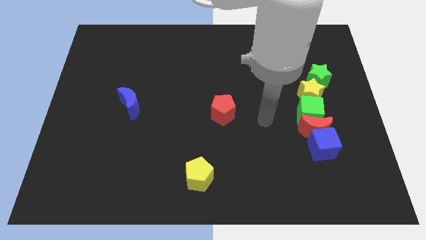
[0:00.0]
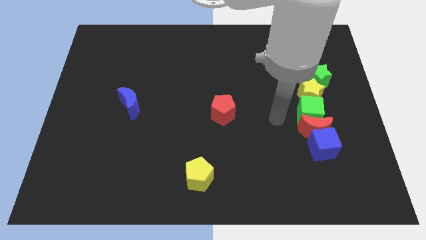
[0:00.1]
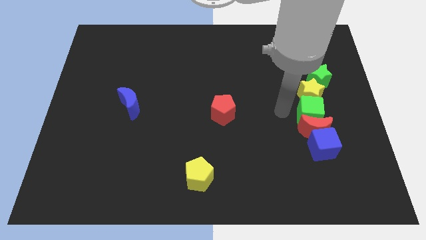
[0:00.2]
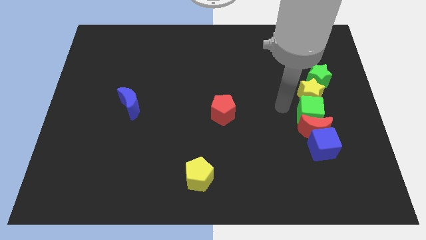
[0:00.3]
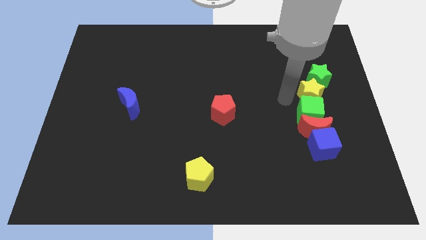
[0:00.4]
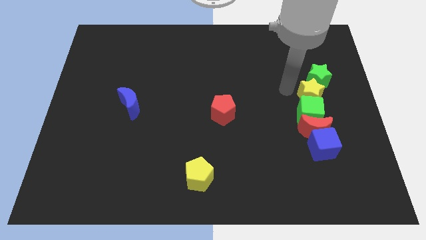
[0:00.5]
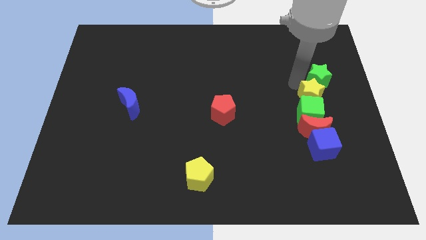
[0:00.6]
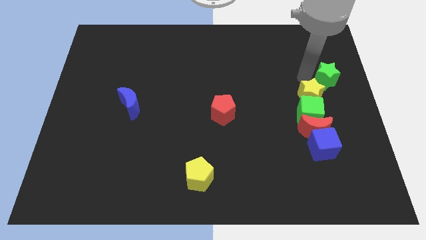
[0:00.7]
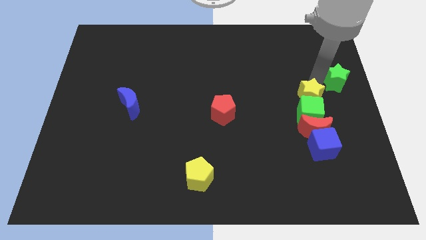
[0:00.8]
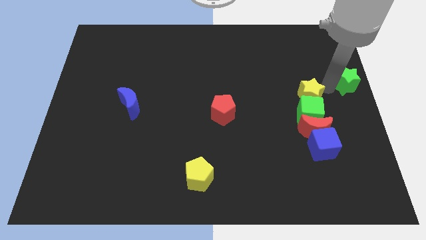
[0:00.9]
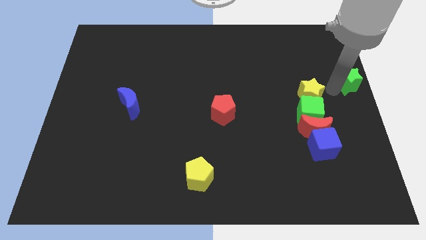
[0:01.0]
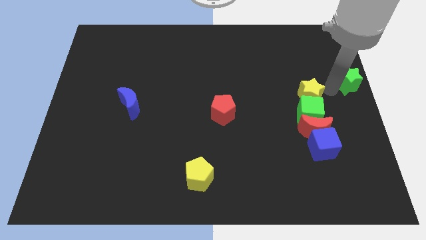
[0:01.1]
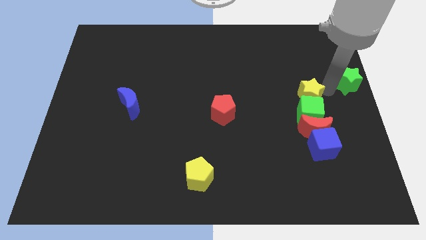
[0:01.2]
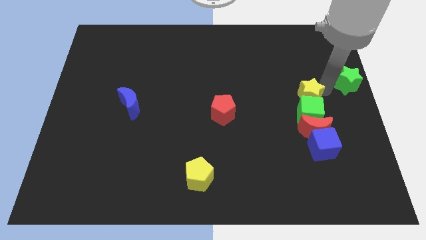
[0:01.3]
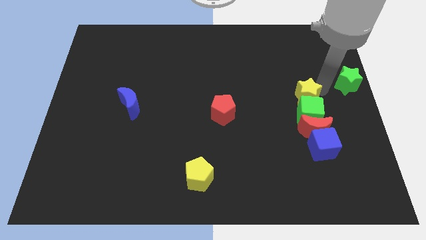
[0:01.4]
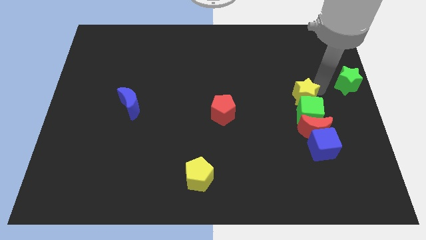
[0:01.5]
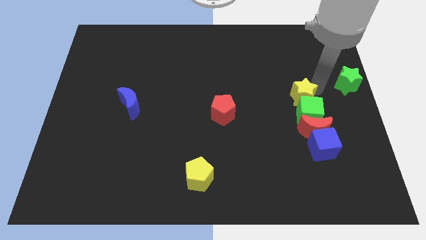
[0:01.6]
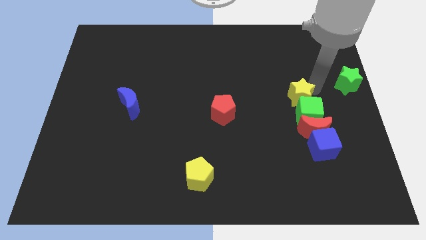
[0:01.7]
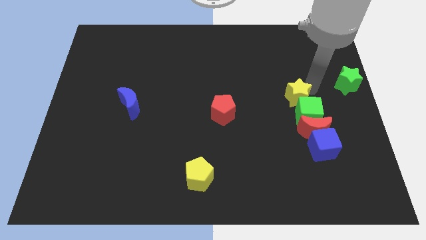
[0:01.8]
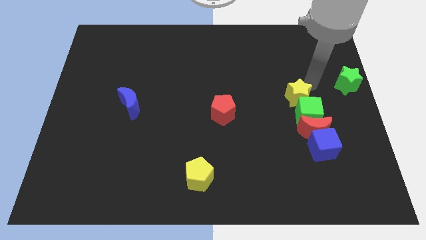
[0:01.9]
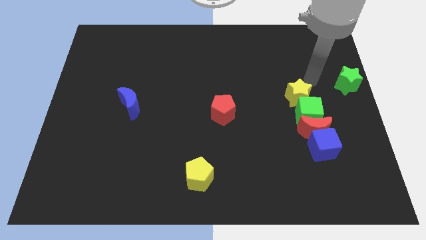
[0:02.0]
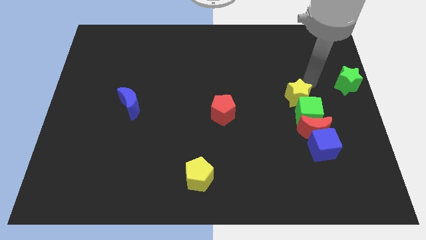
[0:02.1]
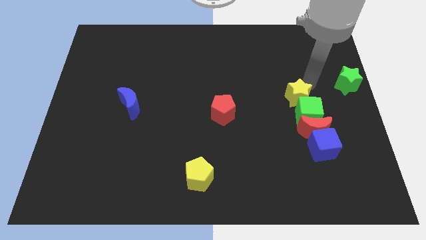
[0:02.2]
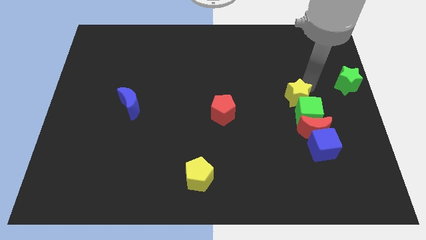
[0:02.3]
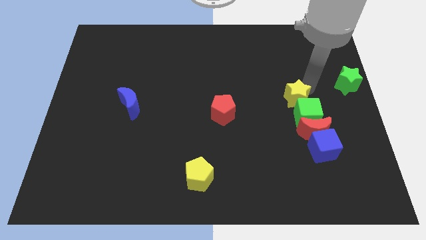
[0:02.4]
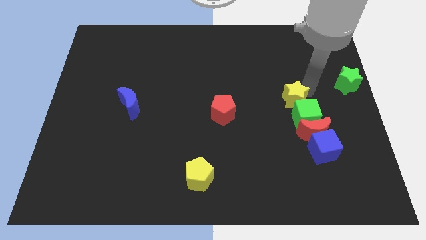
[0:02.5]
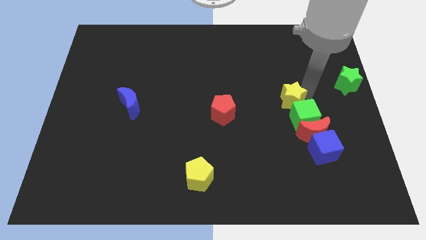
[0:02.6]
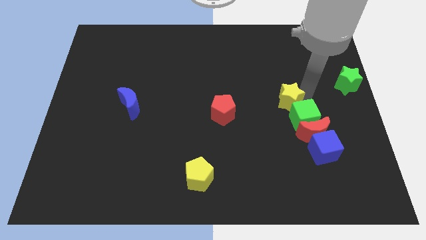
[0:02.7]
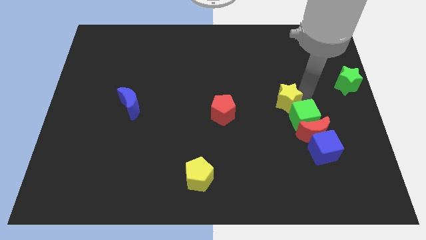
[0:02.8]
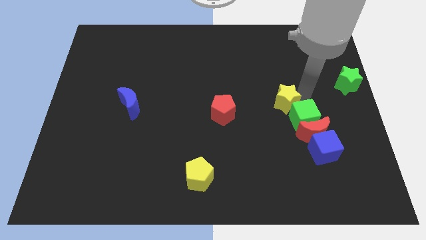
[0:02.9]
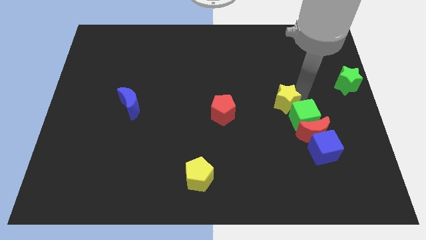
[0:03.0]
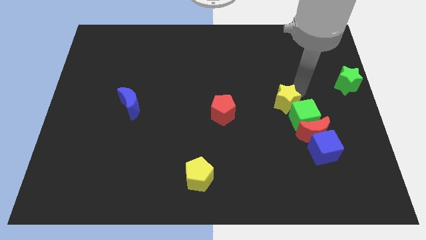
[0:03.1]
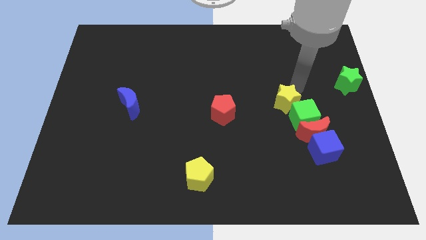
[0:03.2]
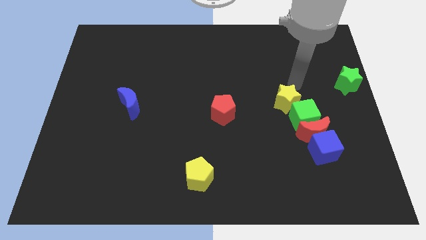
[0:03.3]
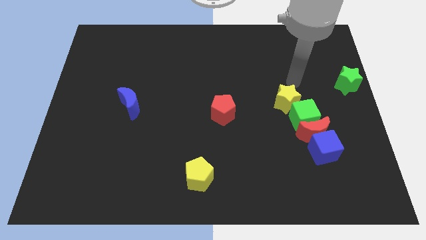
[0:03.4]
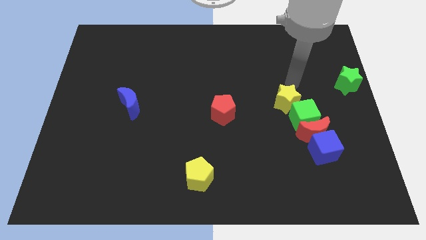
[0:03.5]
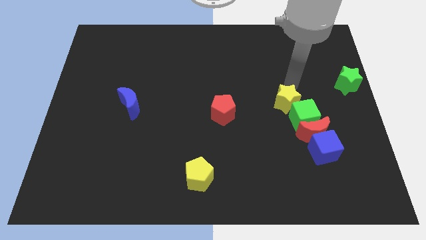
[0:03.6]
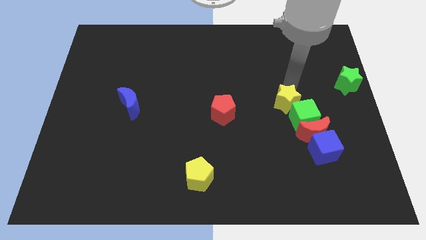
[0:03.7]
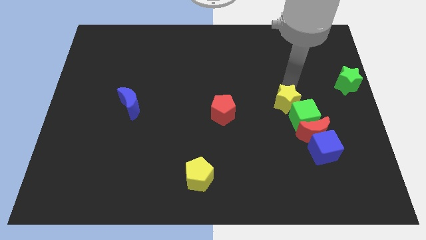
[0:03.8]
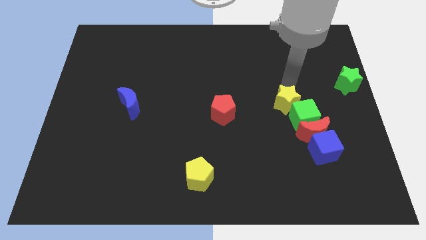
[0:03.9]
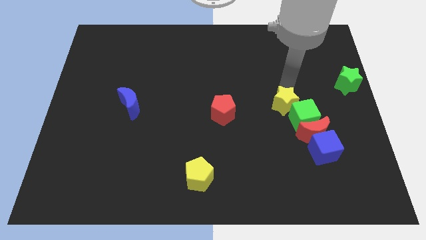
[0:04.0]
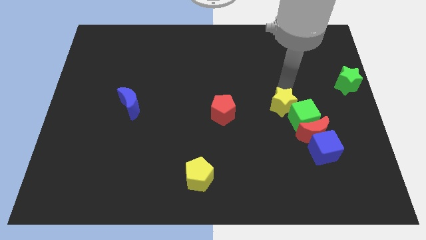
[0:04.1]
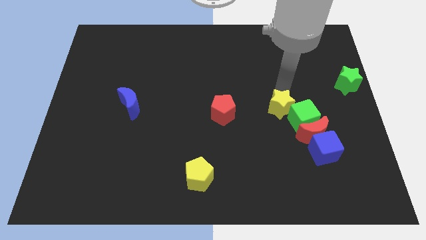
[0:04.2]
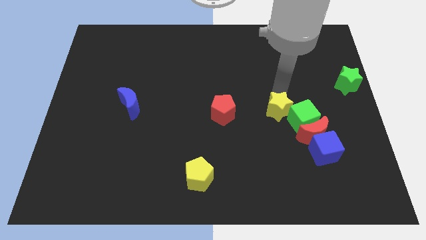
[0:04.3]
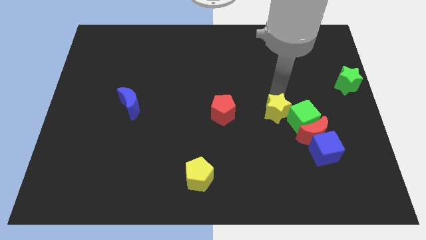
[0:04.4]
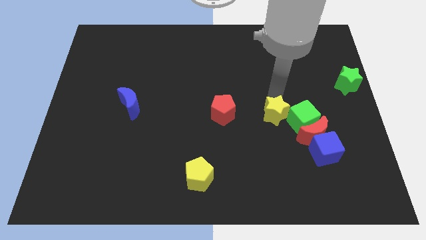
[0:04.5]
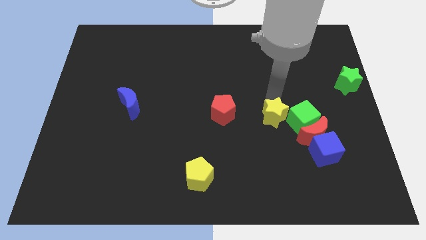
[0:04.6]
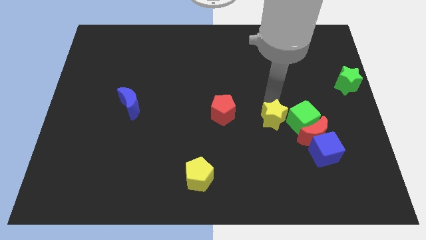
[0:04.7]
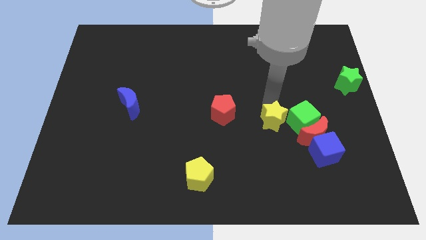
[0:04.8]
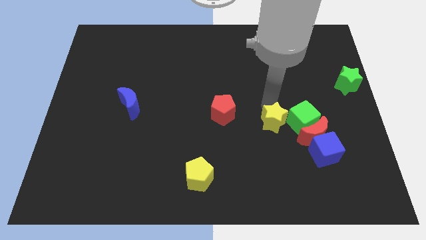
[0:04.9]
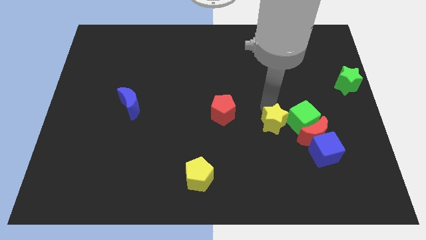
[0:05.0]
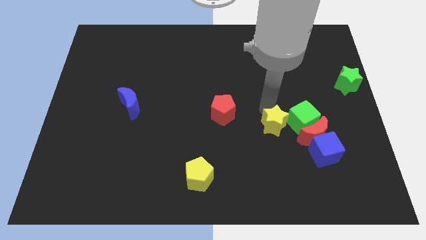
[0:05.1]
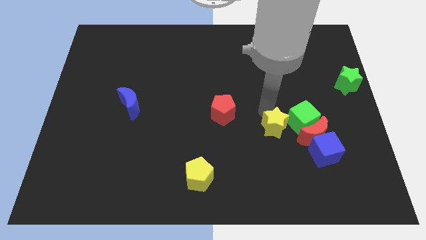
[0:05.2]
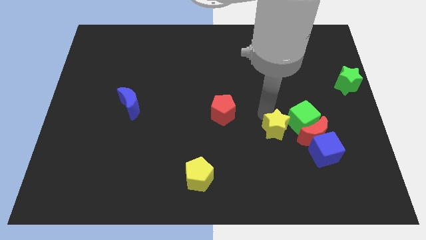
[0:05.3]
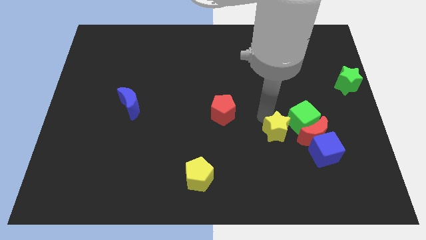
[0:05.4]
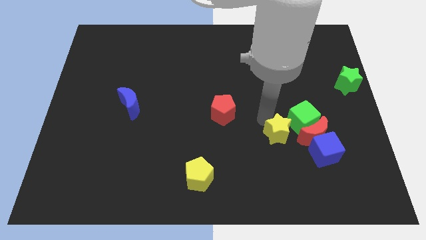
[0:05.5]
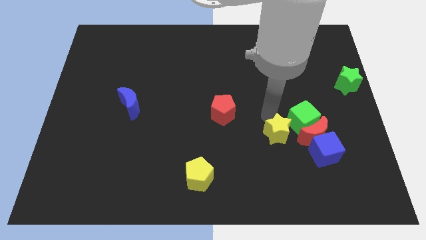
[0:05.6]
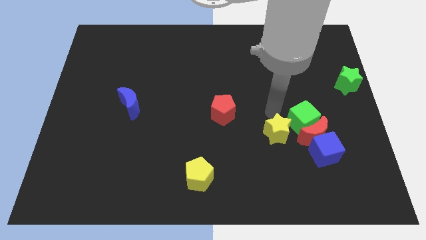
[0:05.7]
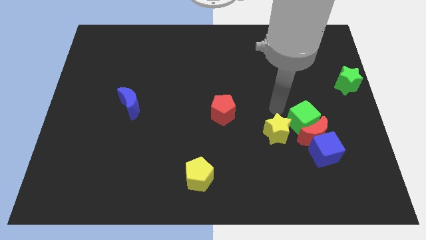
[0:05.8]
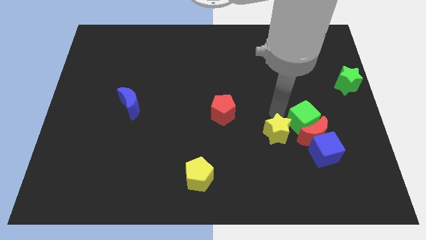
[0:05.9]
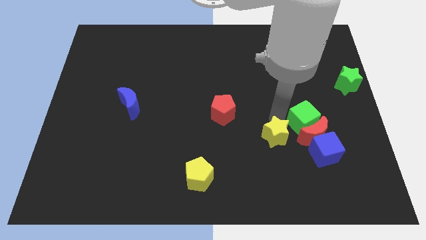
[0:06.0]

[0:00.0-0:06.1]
slide the yellow star just left of the blue cube

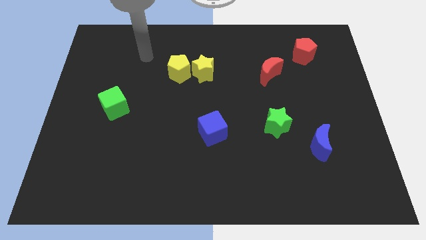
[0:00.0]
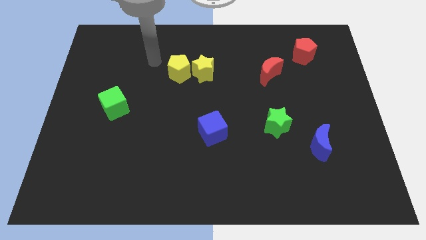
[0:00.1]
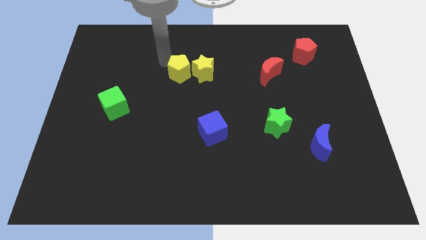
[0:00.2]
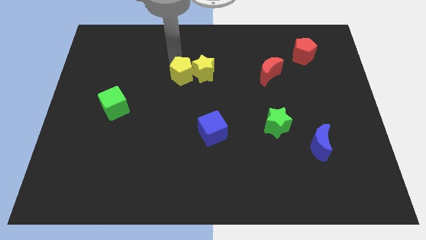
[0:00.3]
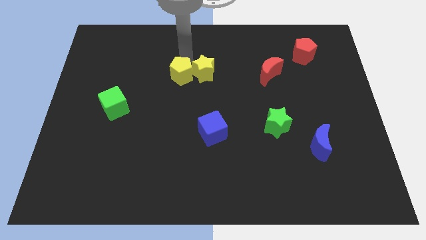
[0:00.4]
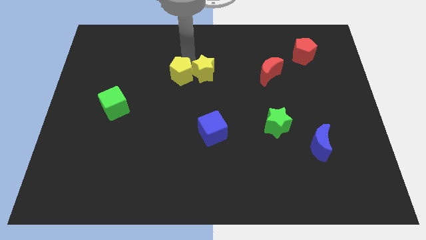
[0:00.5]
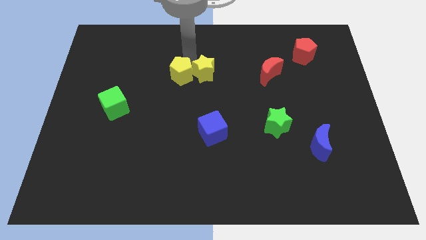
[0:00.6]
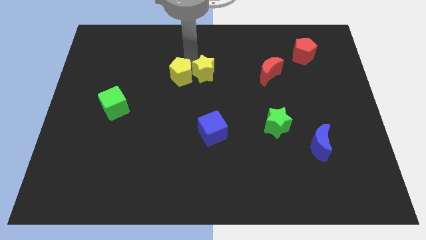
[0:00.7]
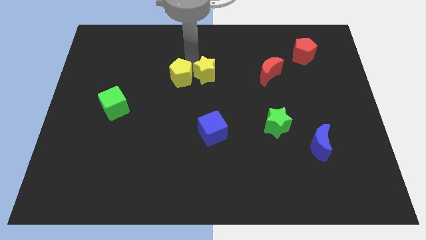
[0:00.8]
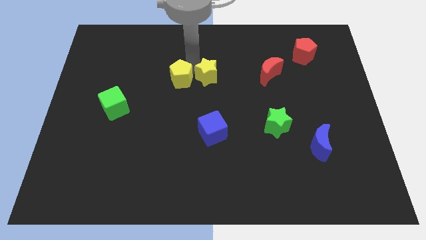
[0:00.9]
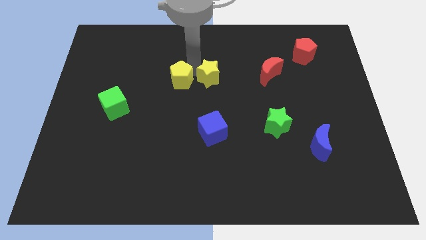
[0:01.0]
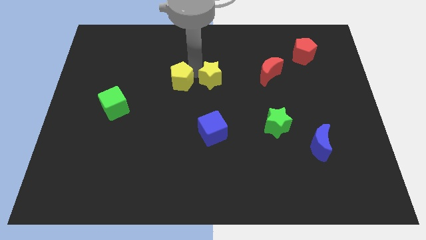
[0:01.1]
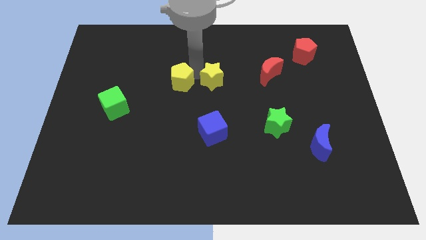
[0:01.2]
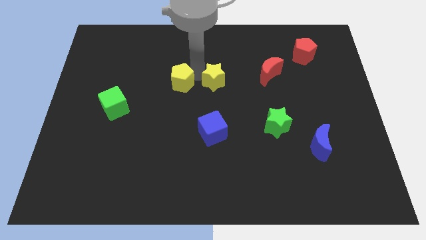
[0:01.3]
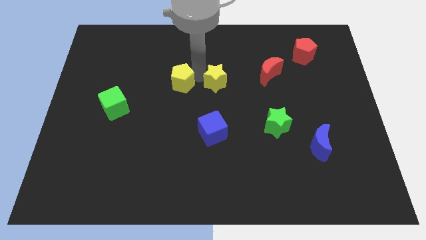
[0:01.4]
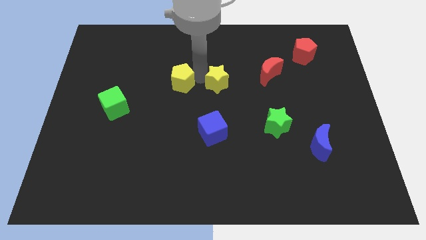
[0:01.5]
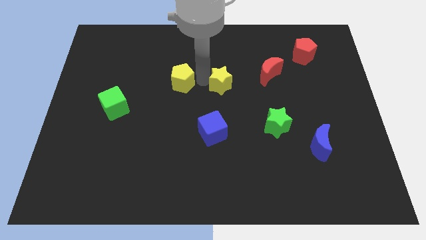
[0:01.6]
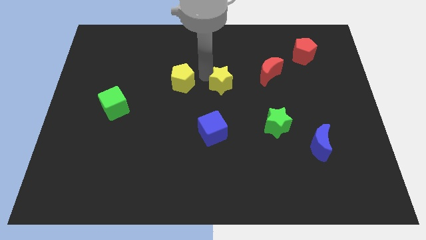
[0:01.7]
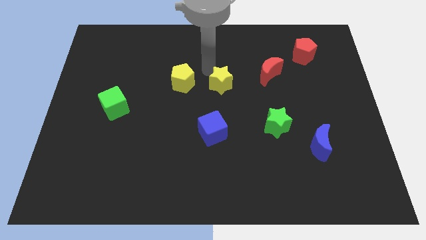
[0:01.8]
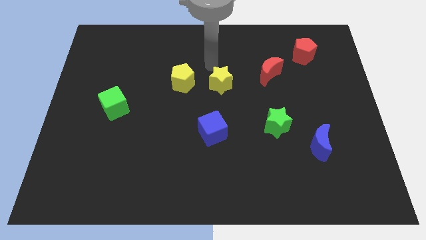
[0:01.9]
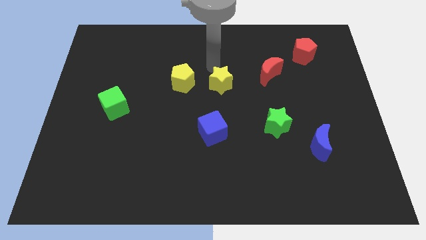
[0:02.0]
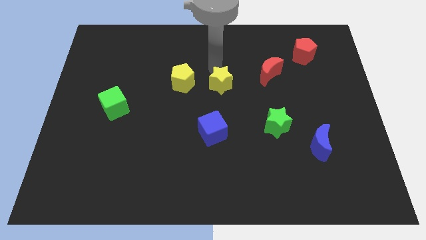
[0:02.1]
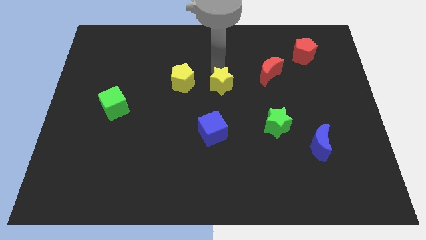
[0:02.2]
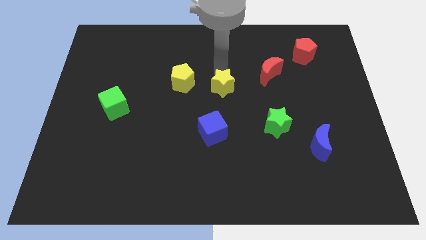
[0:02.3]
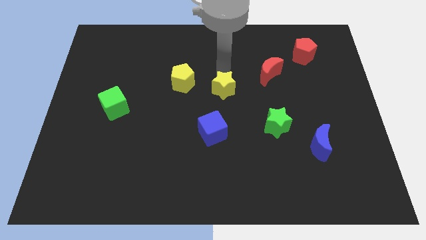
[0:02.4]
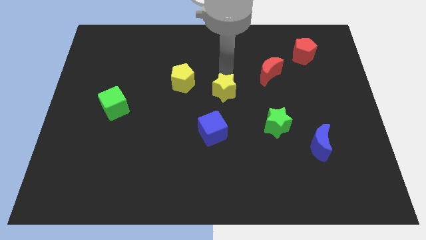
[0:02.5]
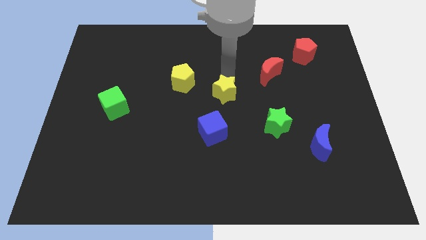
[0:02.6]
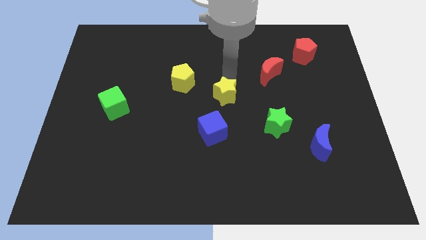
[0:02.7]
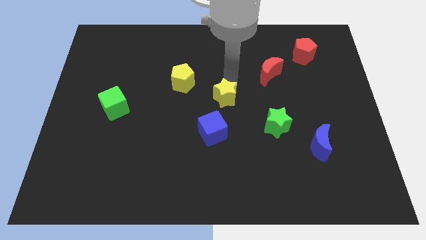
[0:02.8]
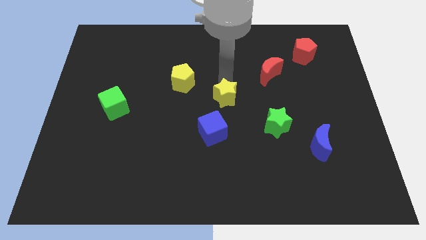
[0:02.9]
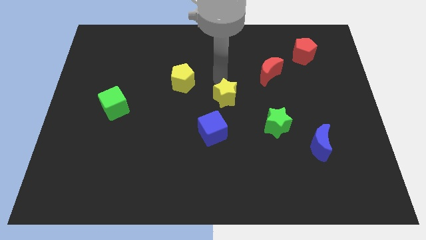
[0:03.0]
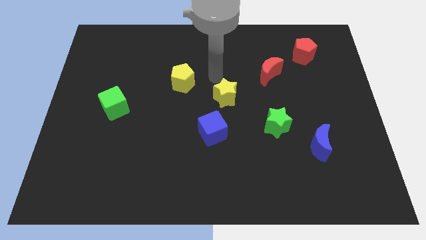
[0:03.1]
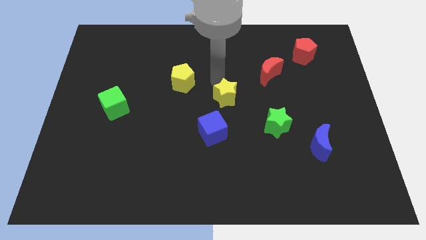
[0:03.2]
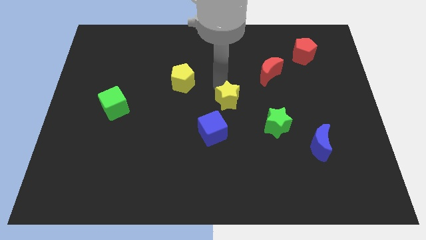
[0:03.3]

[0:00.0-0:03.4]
move the yellow star diagonally up and to the right of the blue cube
